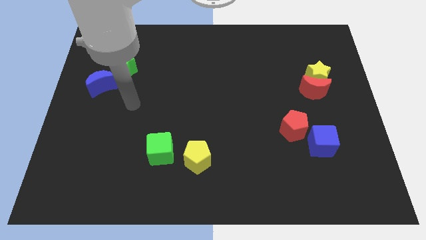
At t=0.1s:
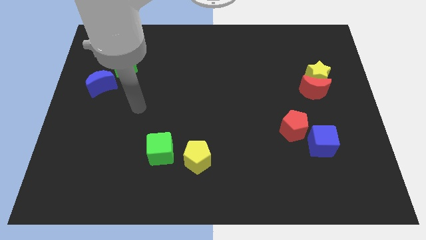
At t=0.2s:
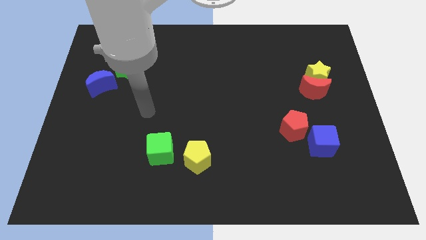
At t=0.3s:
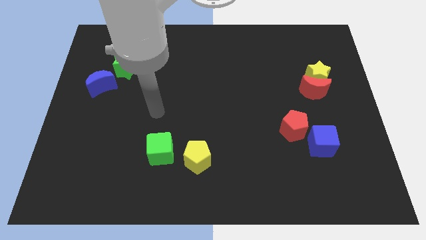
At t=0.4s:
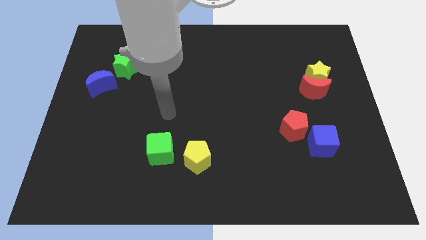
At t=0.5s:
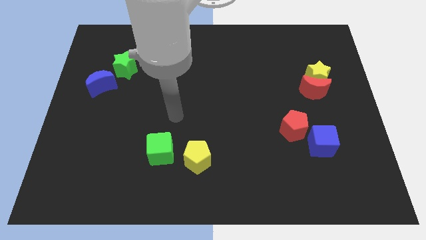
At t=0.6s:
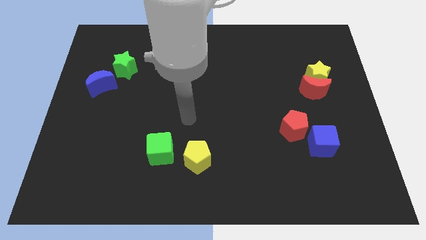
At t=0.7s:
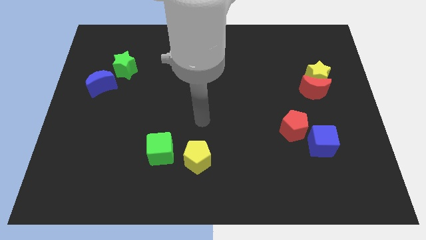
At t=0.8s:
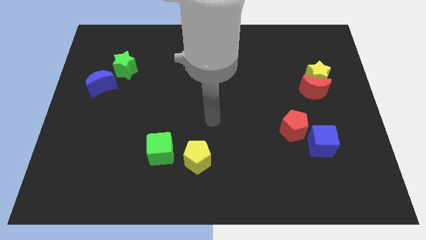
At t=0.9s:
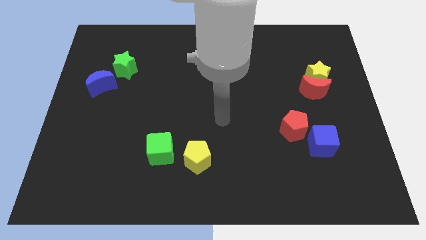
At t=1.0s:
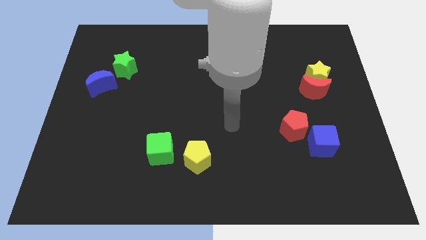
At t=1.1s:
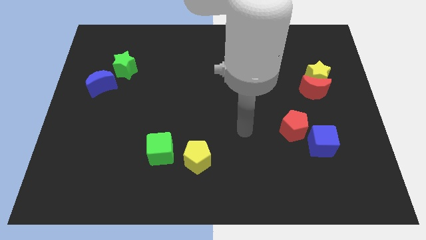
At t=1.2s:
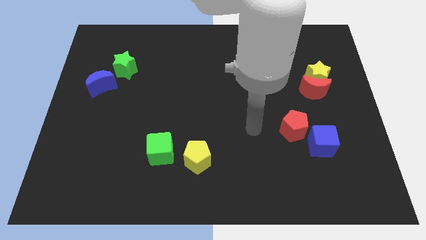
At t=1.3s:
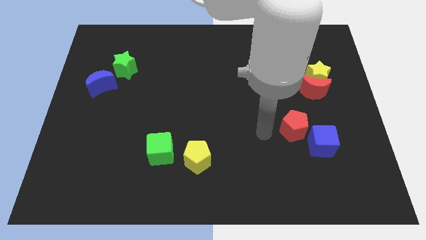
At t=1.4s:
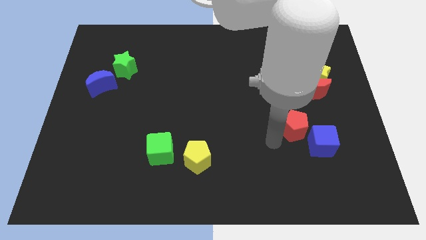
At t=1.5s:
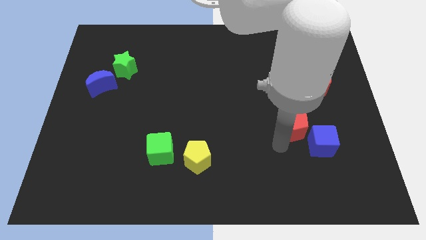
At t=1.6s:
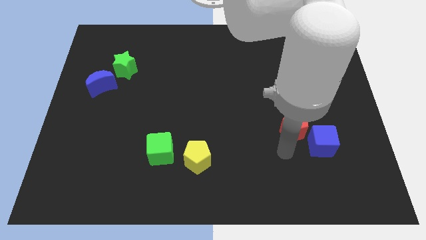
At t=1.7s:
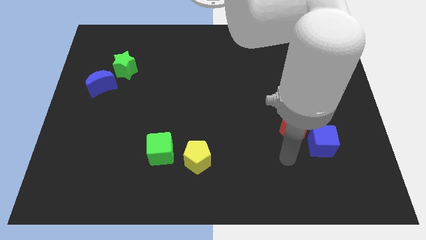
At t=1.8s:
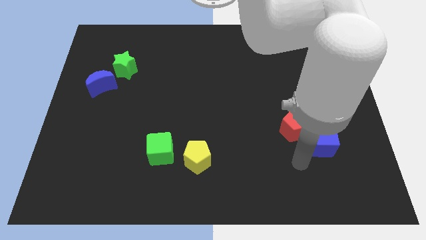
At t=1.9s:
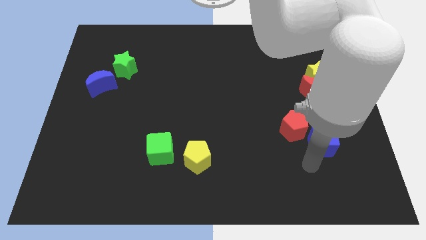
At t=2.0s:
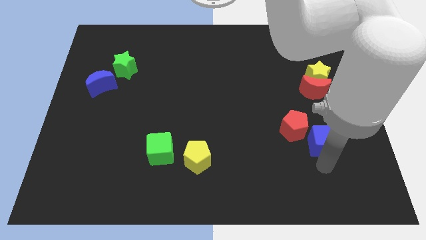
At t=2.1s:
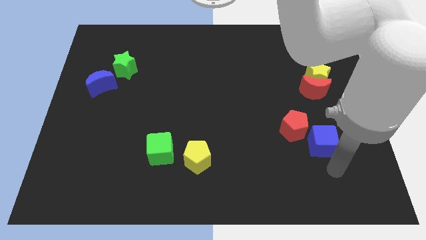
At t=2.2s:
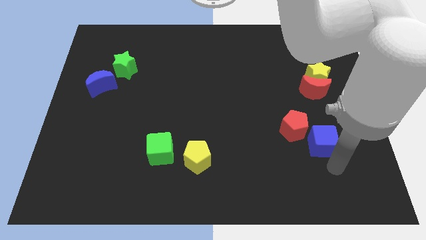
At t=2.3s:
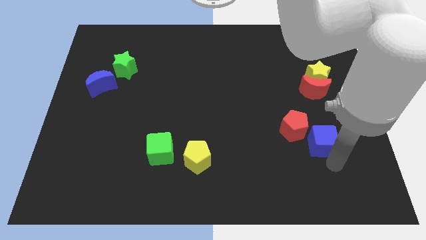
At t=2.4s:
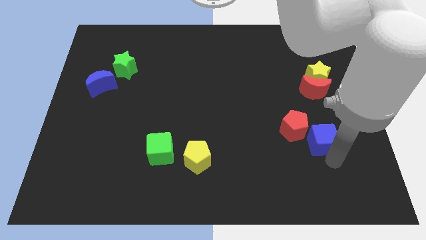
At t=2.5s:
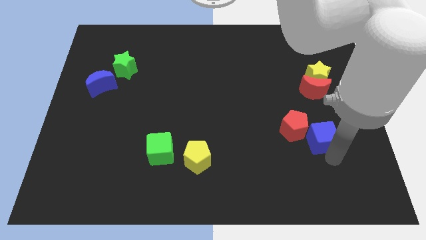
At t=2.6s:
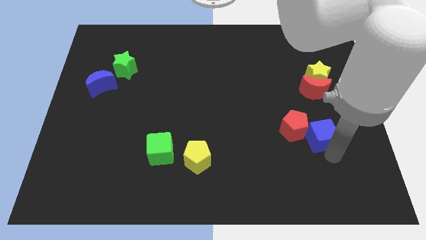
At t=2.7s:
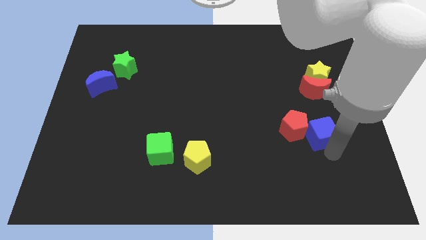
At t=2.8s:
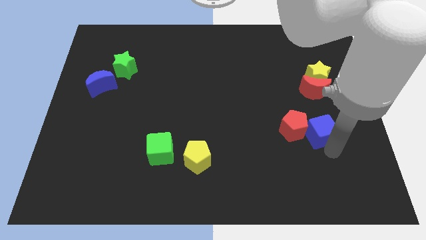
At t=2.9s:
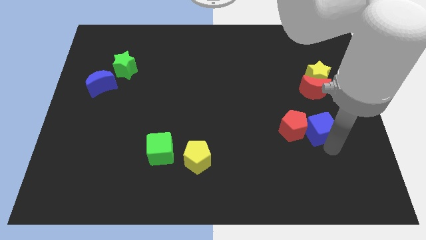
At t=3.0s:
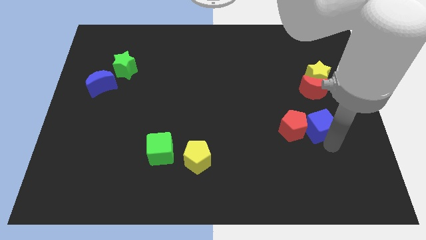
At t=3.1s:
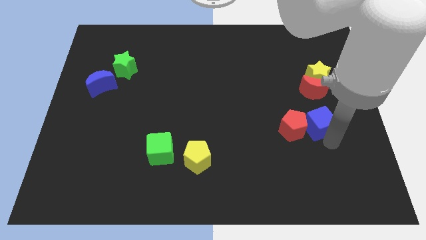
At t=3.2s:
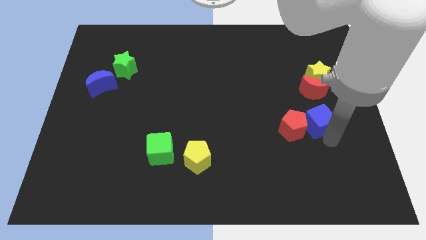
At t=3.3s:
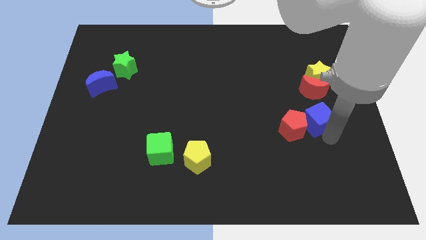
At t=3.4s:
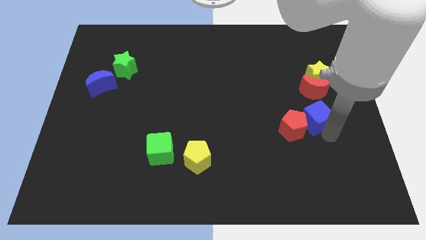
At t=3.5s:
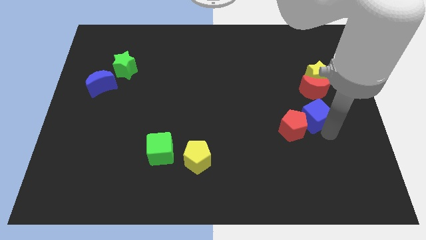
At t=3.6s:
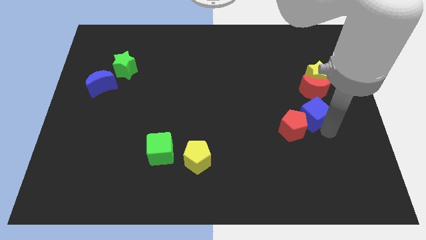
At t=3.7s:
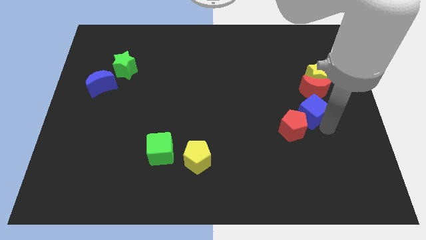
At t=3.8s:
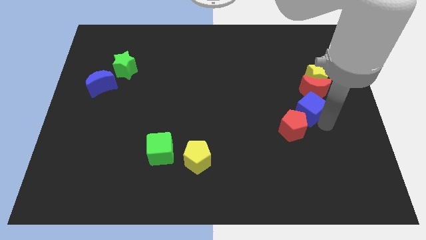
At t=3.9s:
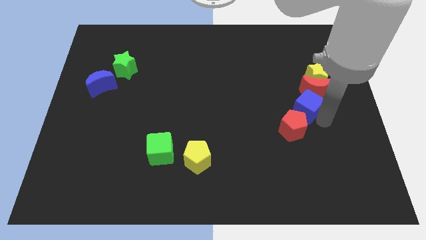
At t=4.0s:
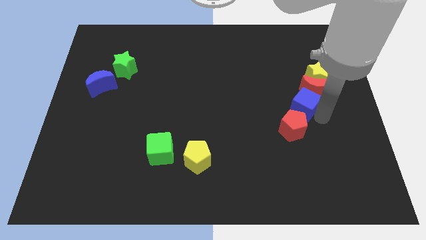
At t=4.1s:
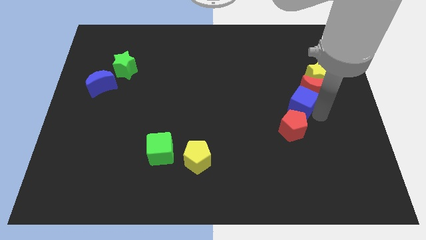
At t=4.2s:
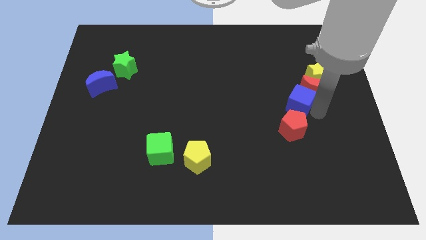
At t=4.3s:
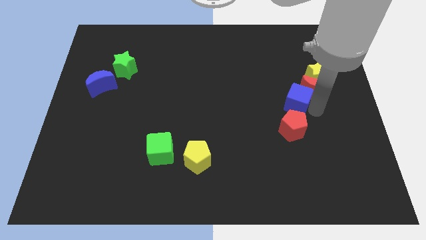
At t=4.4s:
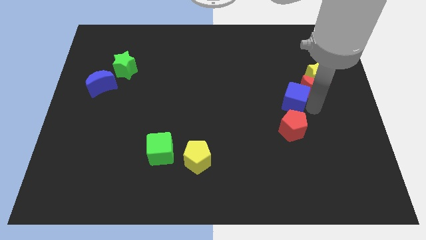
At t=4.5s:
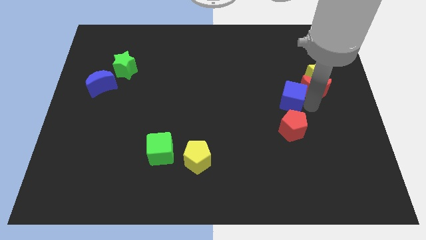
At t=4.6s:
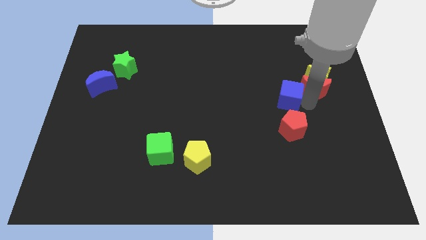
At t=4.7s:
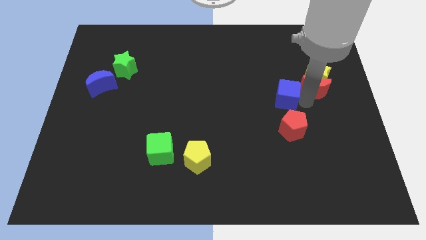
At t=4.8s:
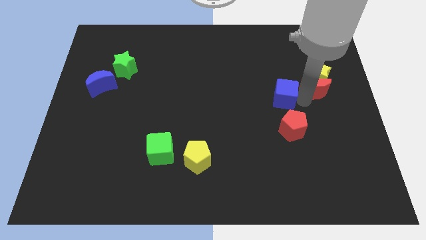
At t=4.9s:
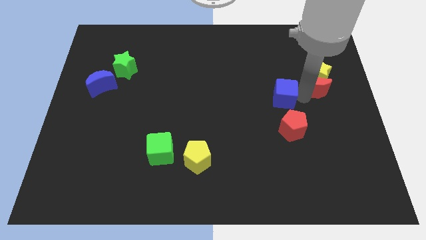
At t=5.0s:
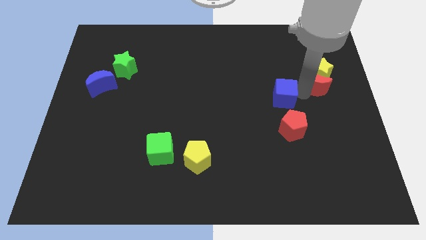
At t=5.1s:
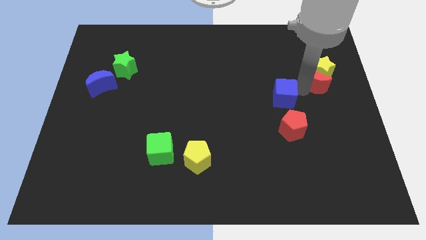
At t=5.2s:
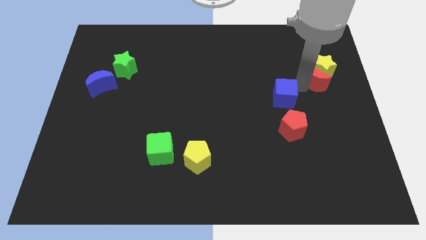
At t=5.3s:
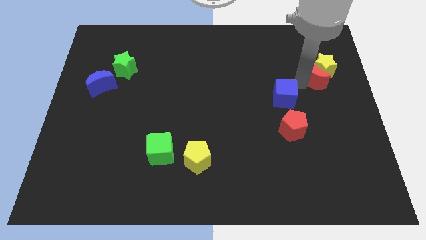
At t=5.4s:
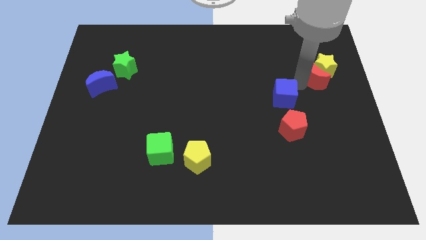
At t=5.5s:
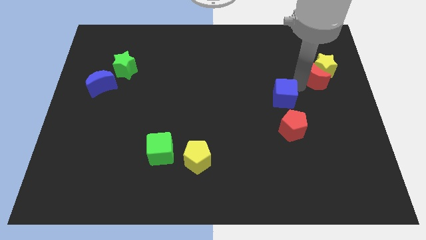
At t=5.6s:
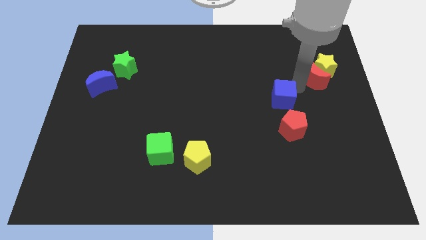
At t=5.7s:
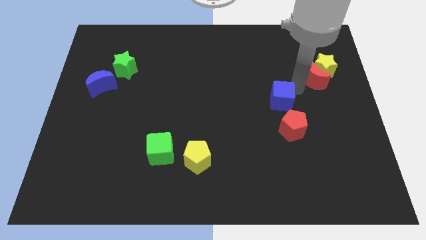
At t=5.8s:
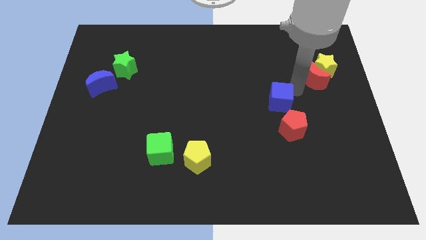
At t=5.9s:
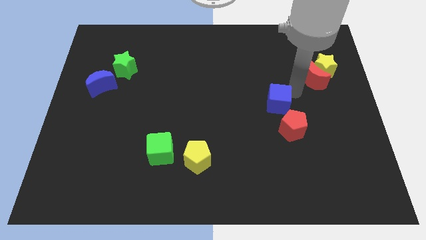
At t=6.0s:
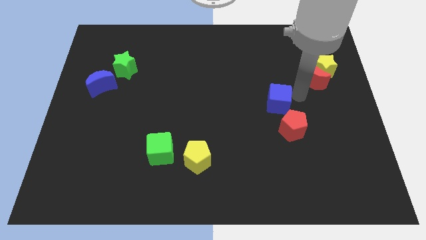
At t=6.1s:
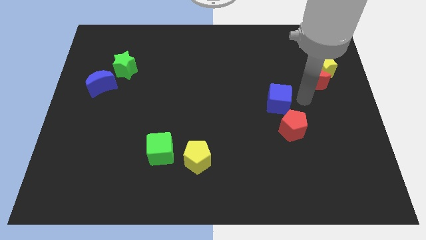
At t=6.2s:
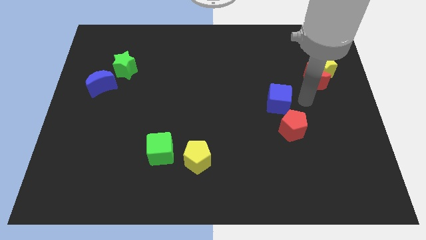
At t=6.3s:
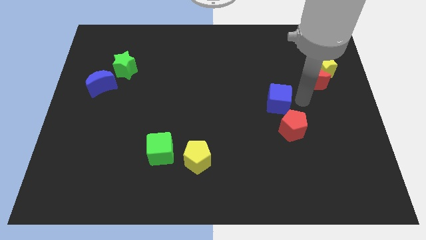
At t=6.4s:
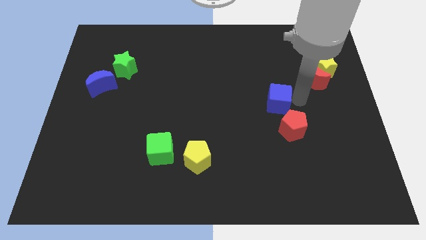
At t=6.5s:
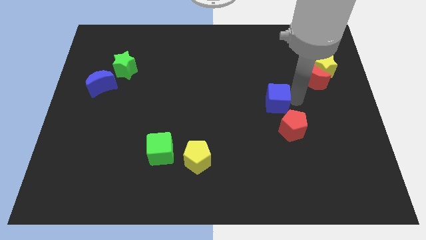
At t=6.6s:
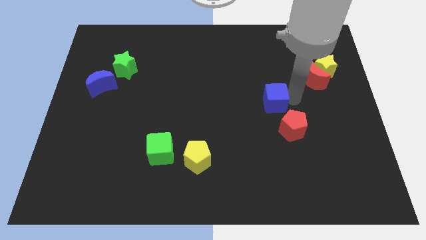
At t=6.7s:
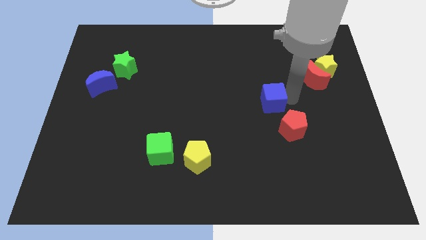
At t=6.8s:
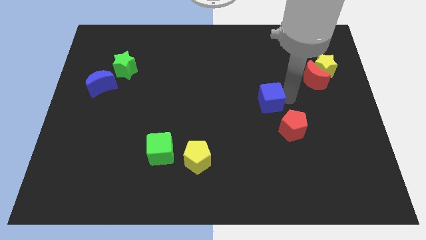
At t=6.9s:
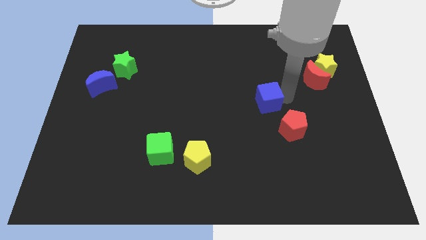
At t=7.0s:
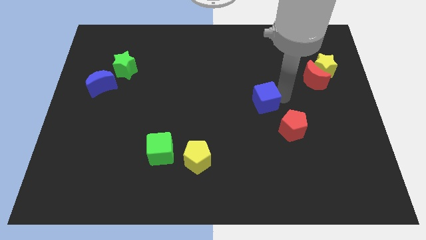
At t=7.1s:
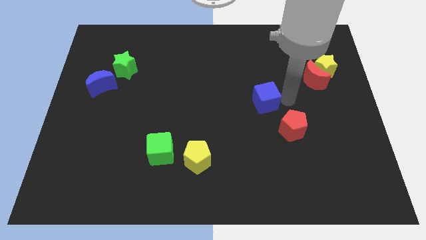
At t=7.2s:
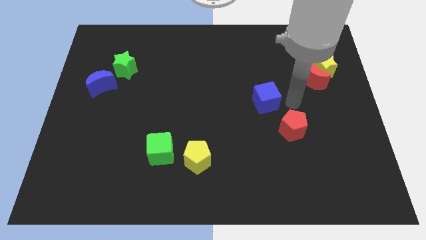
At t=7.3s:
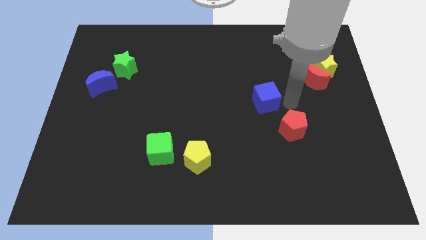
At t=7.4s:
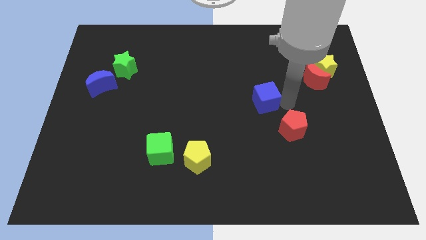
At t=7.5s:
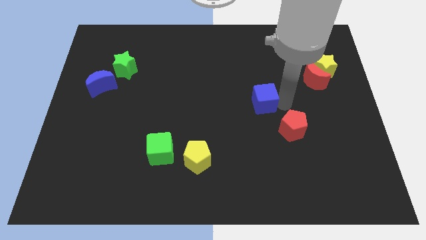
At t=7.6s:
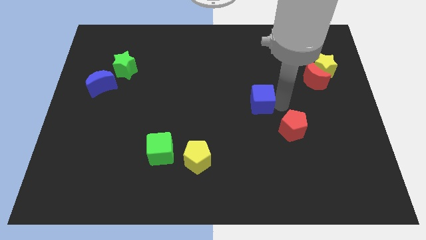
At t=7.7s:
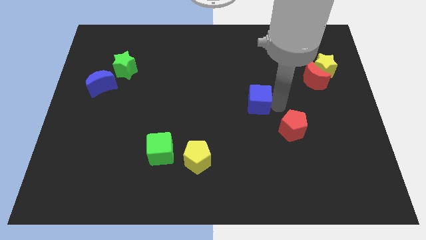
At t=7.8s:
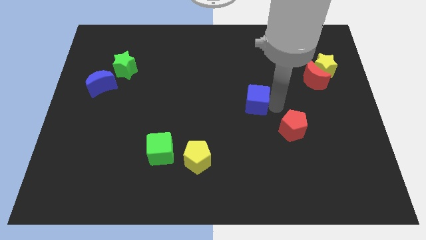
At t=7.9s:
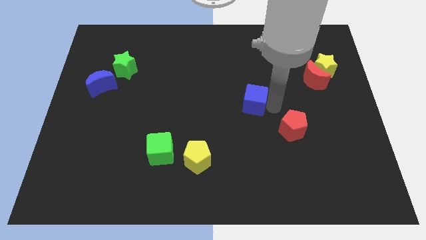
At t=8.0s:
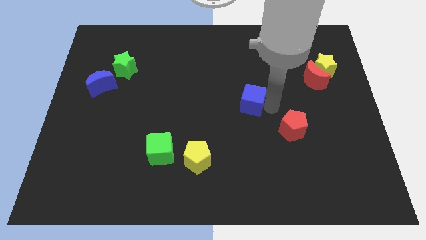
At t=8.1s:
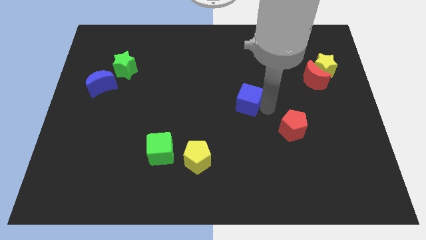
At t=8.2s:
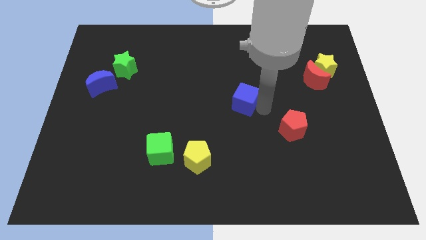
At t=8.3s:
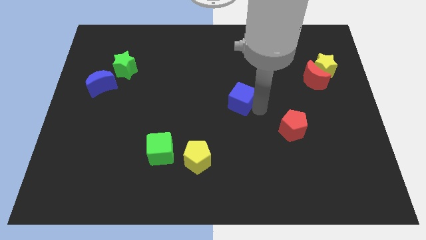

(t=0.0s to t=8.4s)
move the blue cube upwards and then to the left
